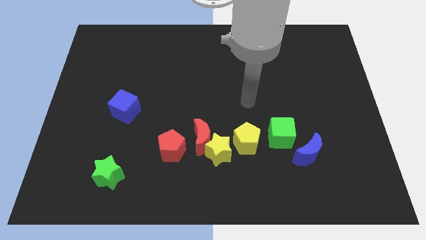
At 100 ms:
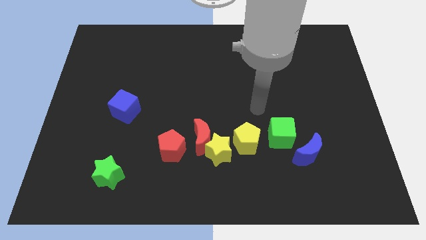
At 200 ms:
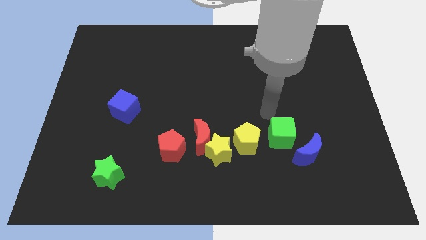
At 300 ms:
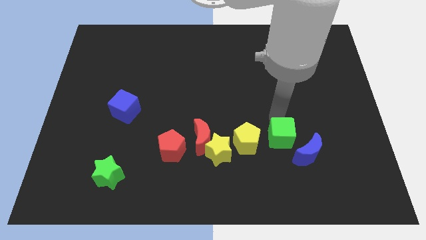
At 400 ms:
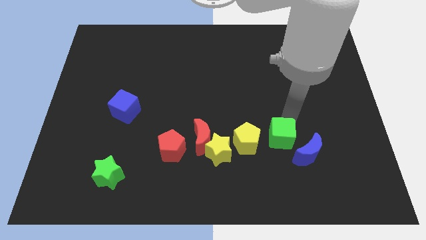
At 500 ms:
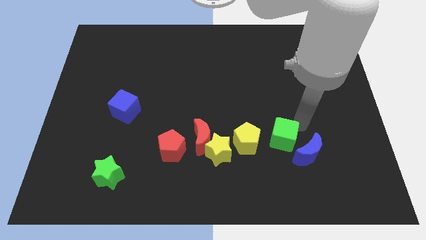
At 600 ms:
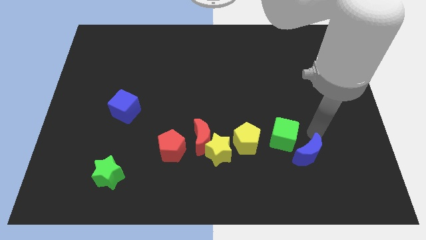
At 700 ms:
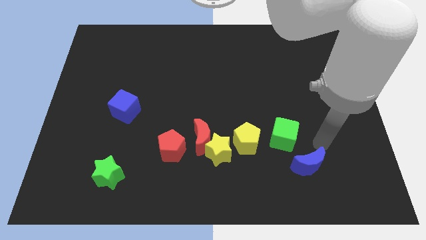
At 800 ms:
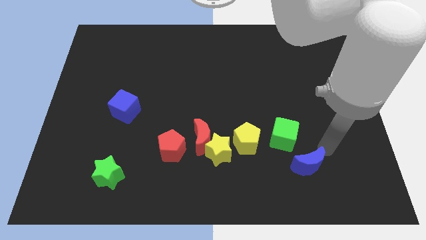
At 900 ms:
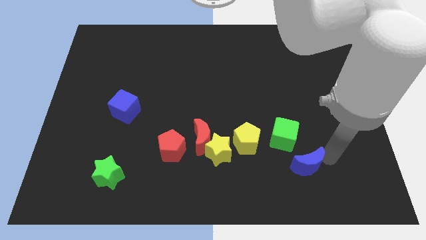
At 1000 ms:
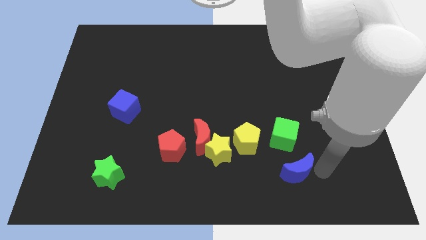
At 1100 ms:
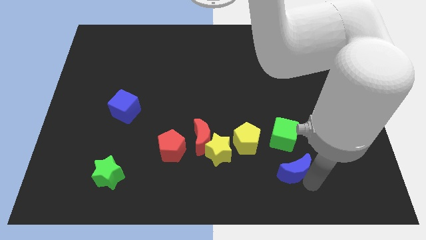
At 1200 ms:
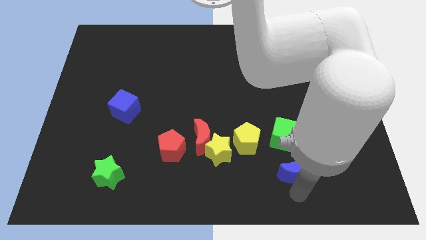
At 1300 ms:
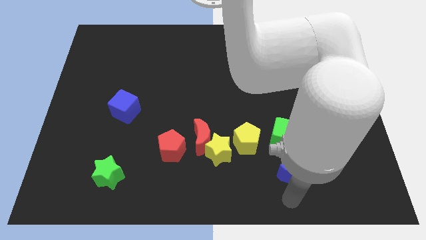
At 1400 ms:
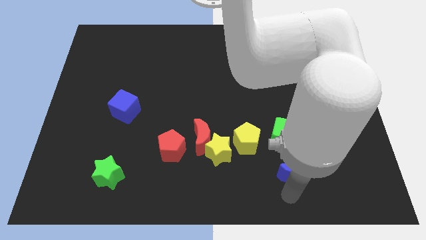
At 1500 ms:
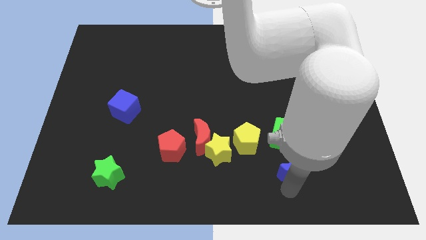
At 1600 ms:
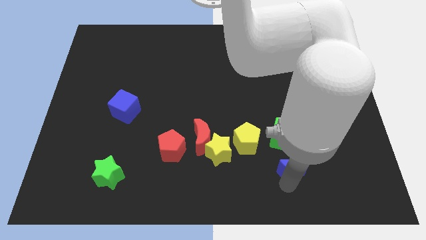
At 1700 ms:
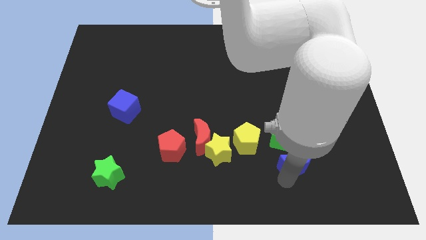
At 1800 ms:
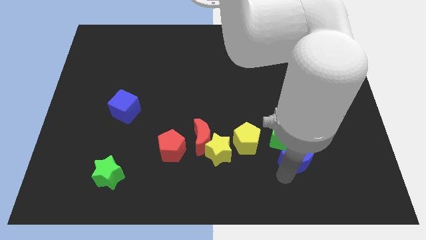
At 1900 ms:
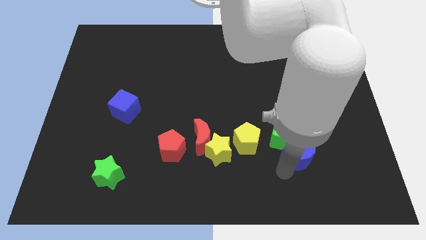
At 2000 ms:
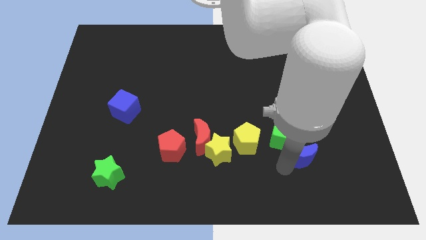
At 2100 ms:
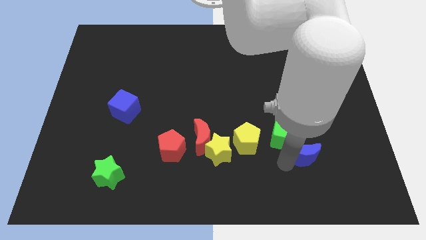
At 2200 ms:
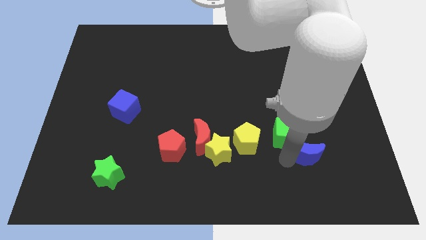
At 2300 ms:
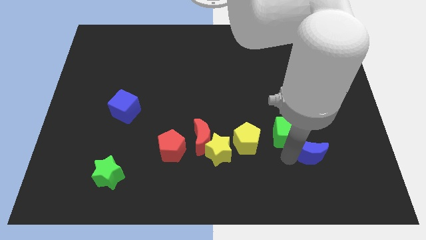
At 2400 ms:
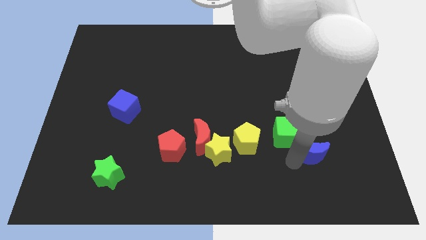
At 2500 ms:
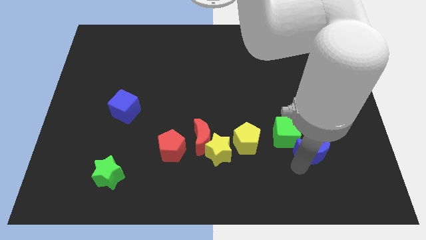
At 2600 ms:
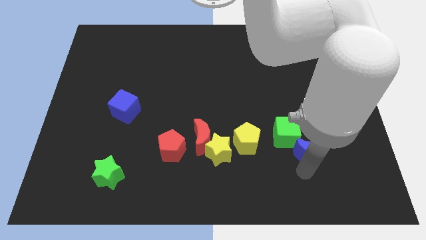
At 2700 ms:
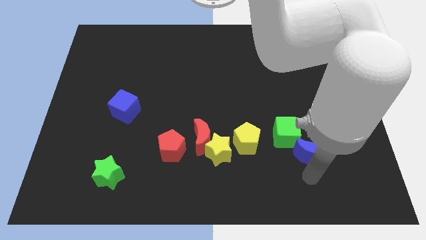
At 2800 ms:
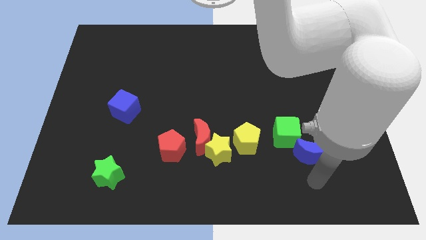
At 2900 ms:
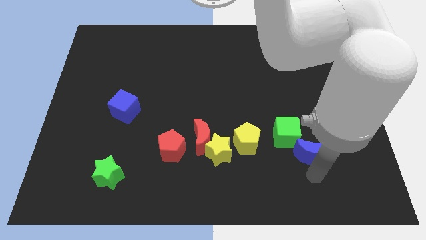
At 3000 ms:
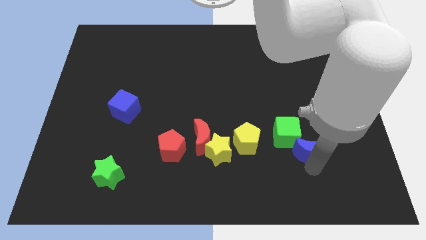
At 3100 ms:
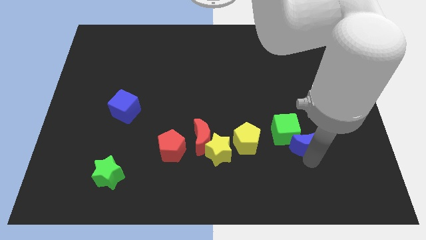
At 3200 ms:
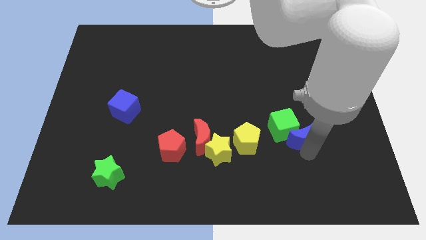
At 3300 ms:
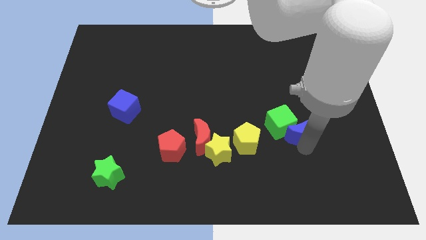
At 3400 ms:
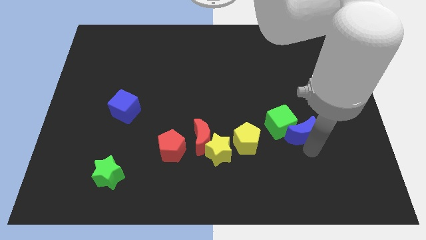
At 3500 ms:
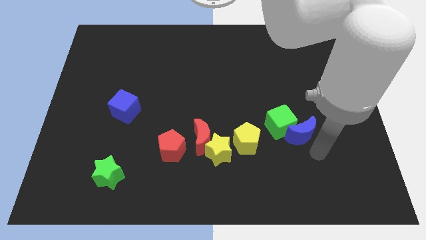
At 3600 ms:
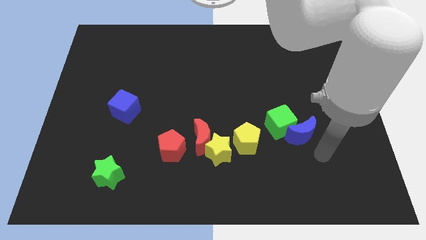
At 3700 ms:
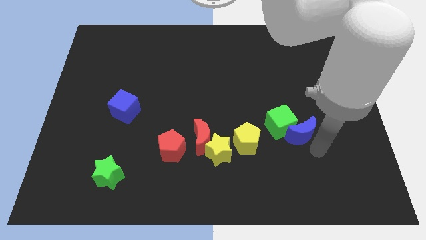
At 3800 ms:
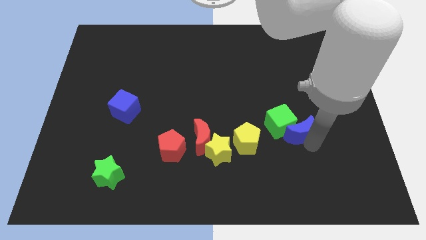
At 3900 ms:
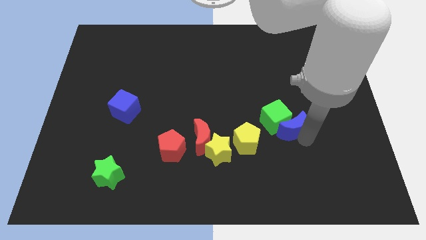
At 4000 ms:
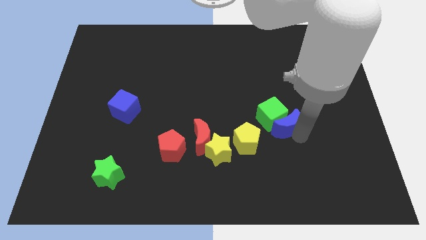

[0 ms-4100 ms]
slightly slide the blue moon diagonally upwards and to the left

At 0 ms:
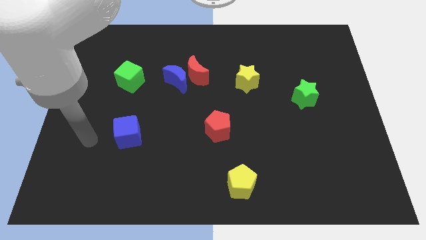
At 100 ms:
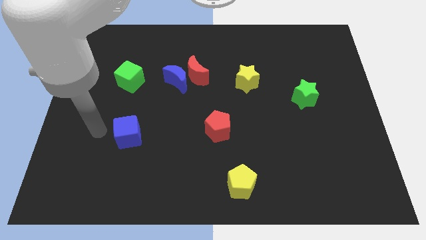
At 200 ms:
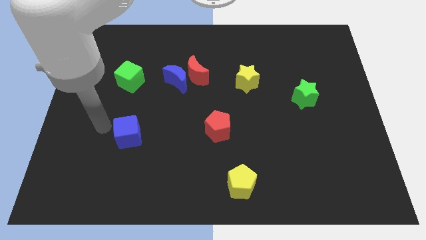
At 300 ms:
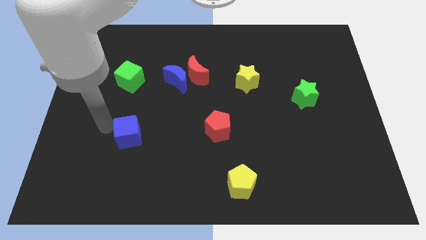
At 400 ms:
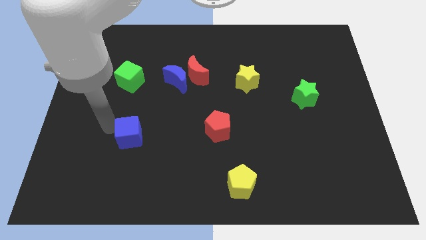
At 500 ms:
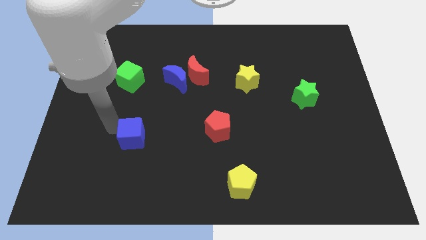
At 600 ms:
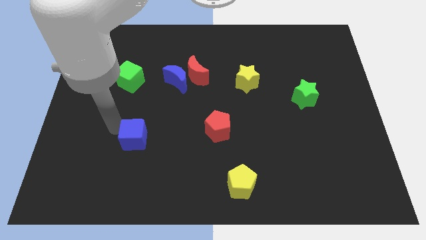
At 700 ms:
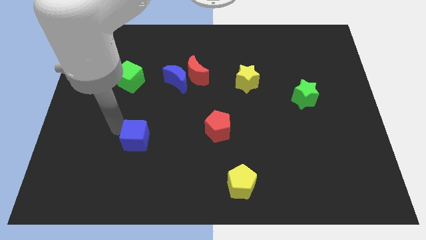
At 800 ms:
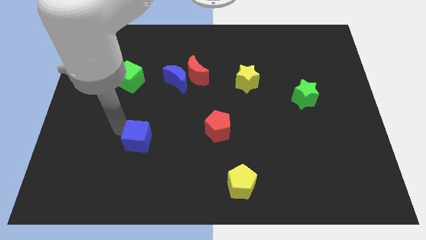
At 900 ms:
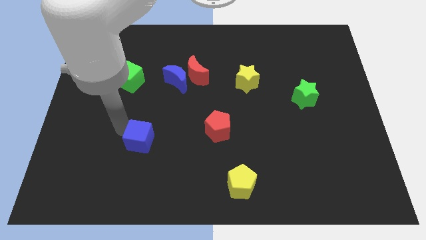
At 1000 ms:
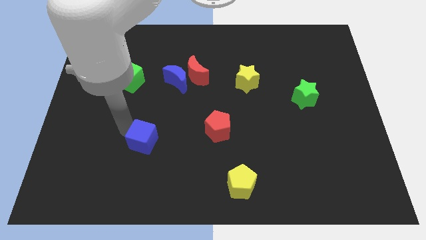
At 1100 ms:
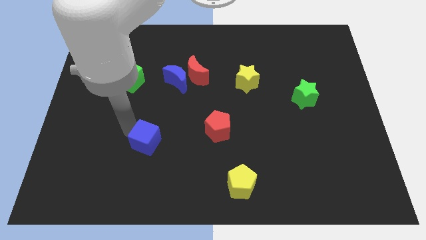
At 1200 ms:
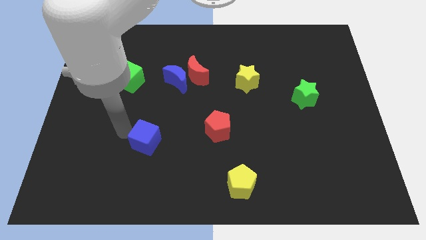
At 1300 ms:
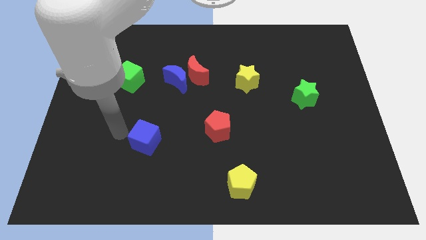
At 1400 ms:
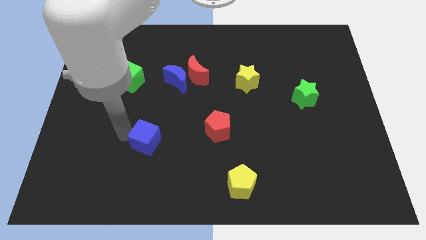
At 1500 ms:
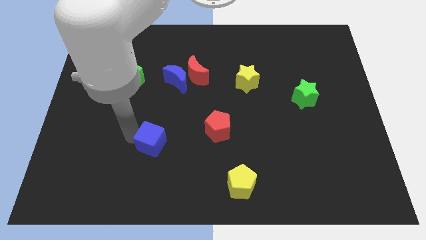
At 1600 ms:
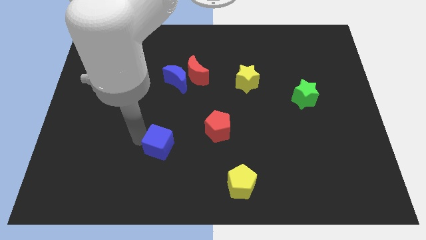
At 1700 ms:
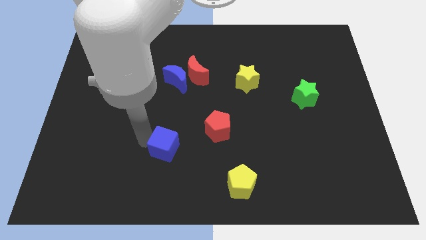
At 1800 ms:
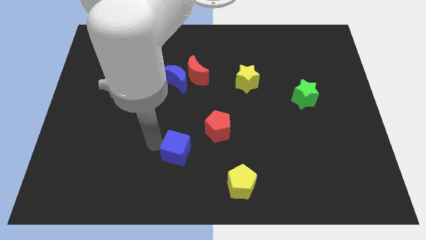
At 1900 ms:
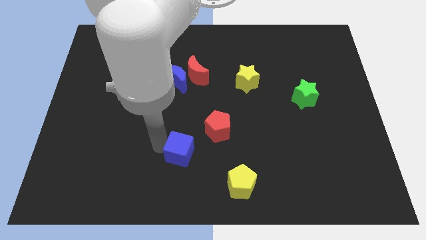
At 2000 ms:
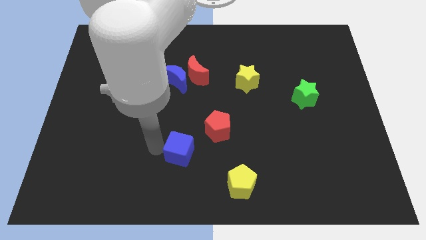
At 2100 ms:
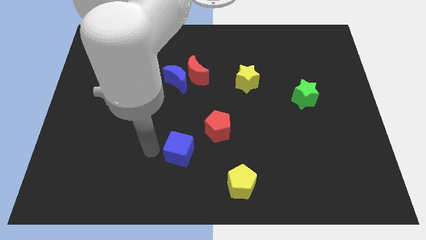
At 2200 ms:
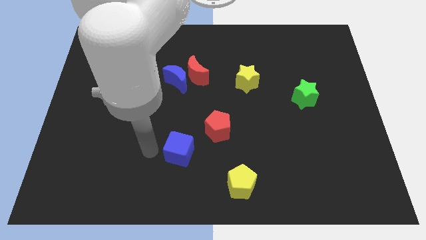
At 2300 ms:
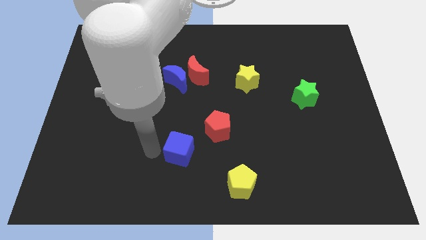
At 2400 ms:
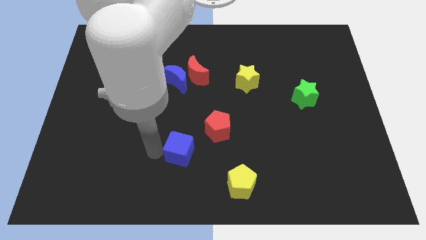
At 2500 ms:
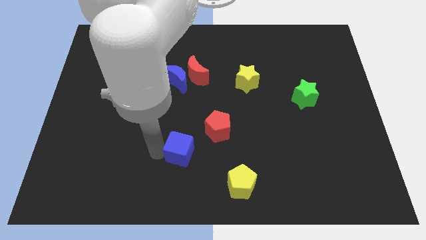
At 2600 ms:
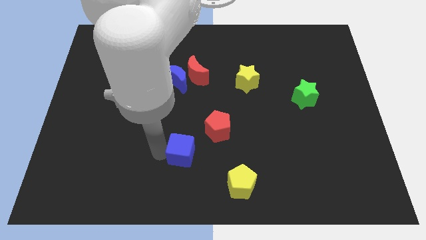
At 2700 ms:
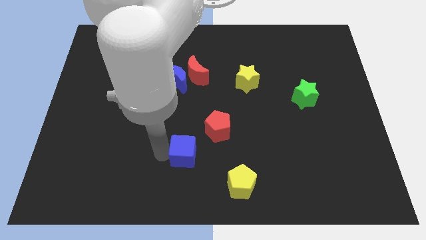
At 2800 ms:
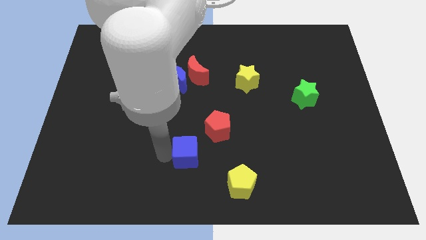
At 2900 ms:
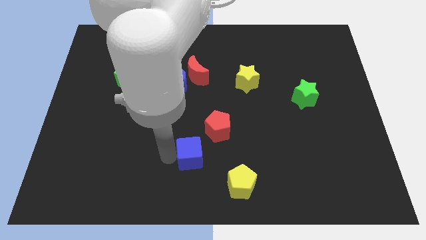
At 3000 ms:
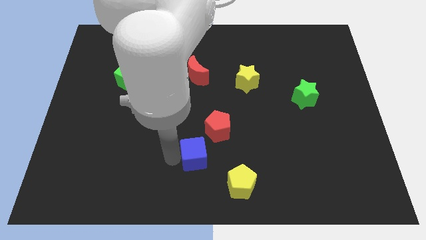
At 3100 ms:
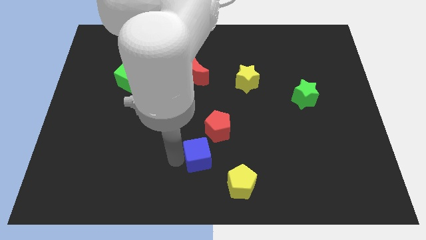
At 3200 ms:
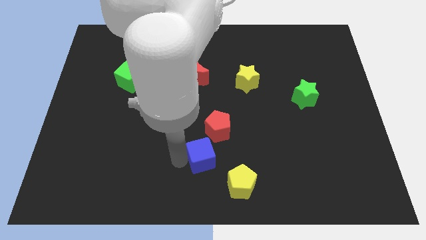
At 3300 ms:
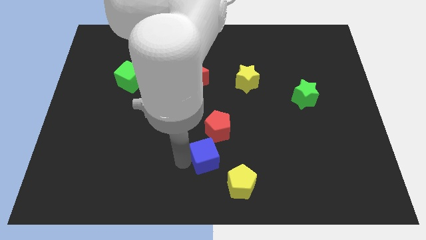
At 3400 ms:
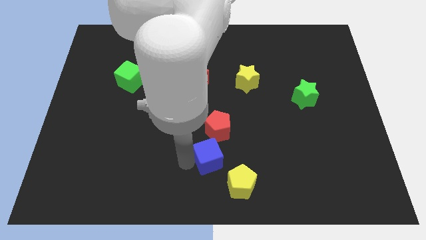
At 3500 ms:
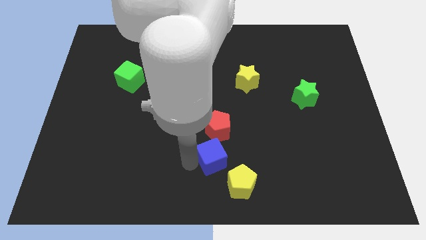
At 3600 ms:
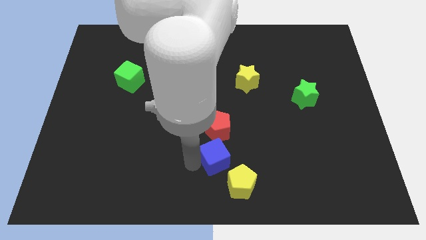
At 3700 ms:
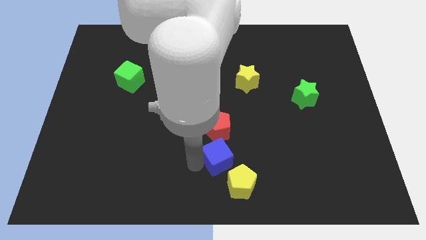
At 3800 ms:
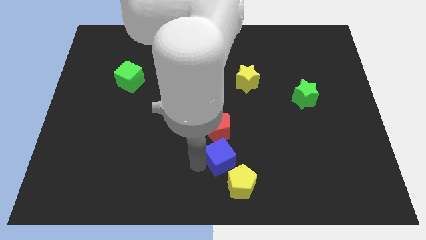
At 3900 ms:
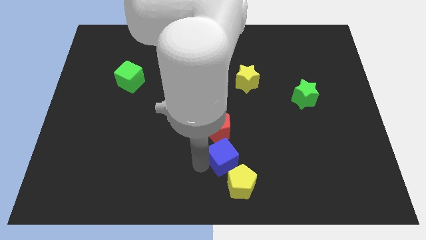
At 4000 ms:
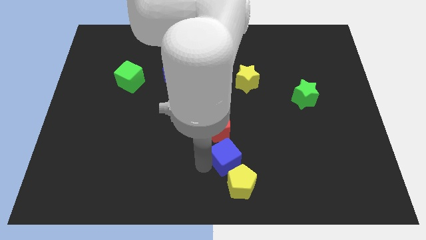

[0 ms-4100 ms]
slide the blue cube right

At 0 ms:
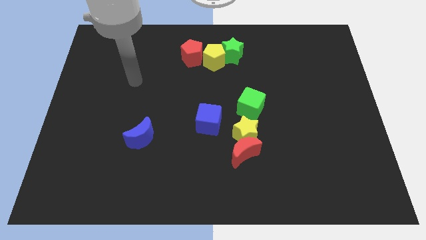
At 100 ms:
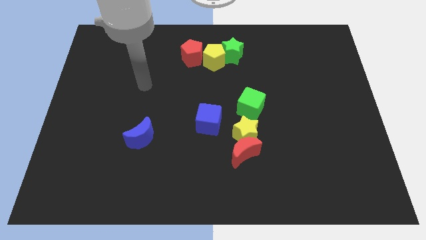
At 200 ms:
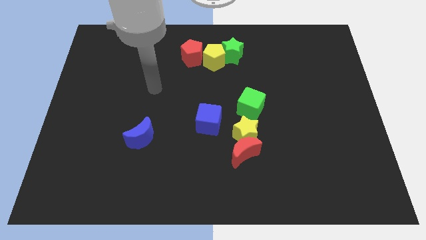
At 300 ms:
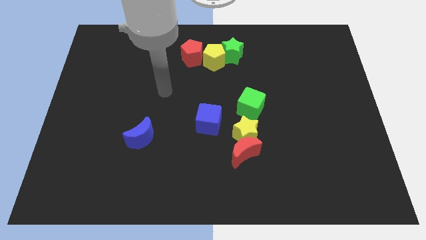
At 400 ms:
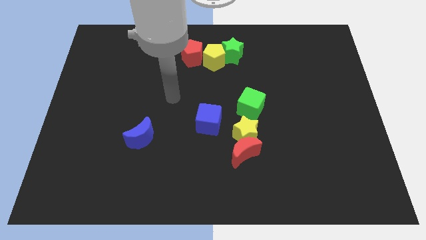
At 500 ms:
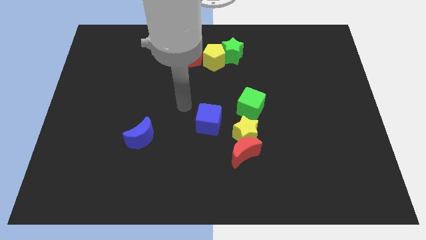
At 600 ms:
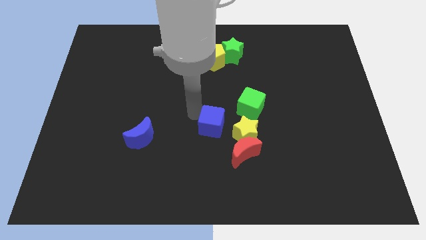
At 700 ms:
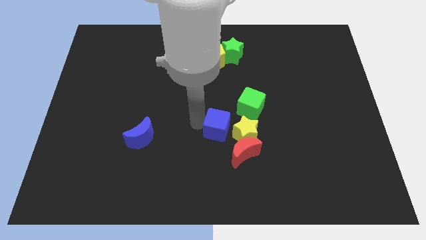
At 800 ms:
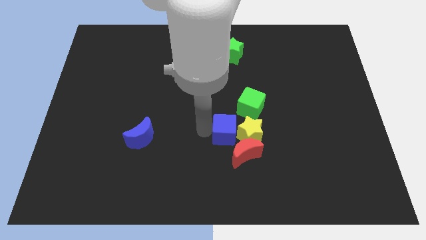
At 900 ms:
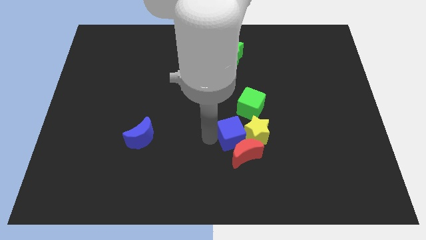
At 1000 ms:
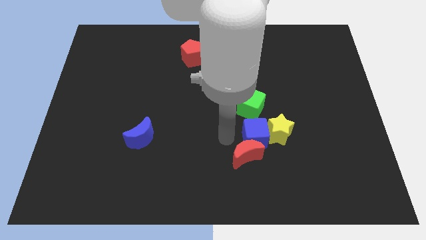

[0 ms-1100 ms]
slightly push the yellow star to the right
